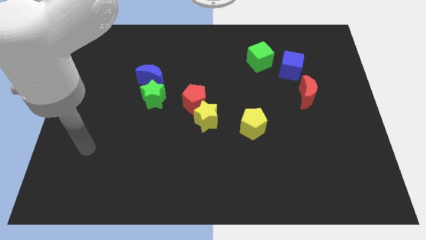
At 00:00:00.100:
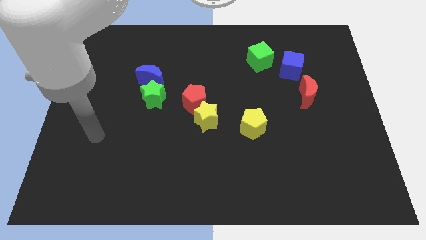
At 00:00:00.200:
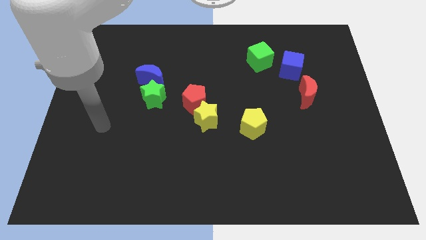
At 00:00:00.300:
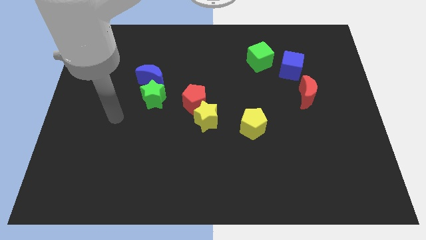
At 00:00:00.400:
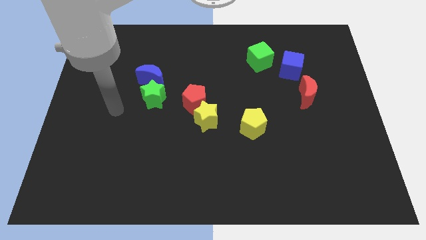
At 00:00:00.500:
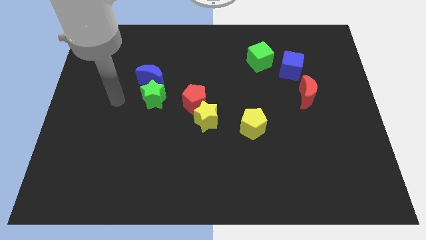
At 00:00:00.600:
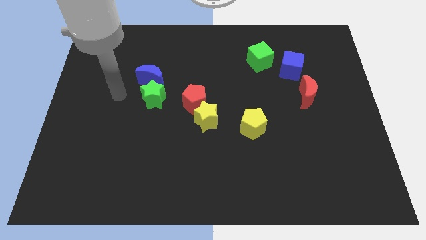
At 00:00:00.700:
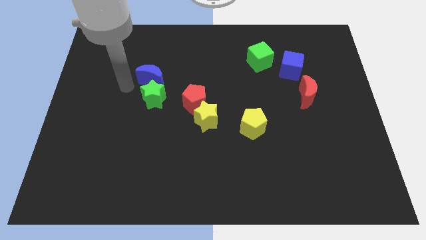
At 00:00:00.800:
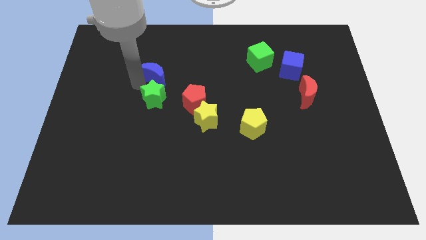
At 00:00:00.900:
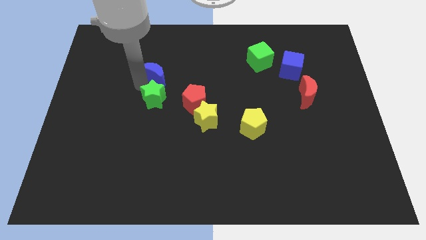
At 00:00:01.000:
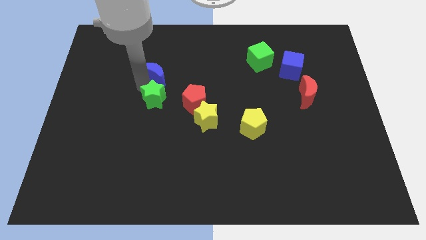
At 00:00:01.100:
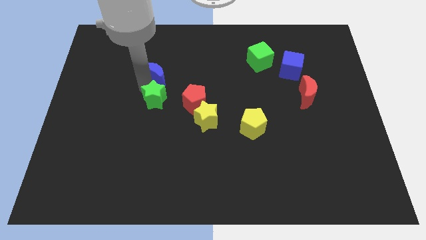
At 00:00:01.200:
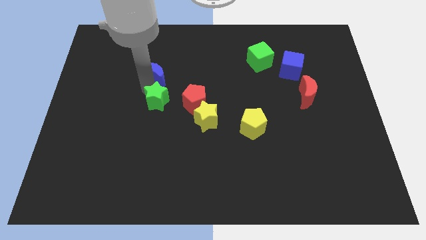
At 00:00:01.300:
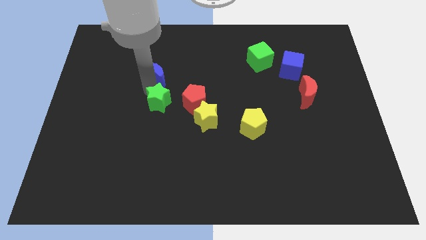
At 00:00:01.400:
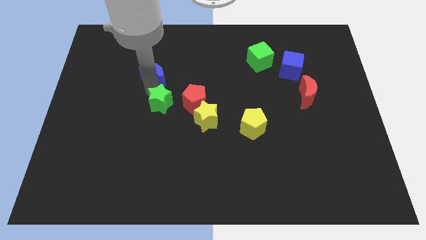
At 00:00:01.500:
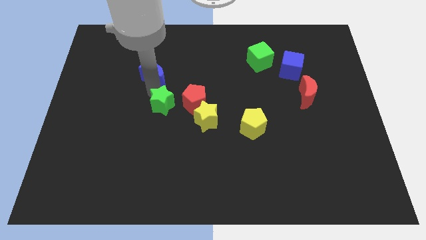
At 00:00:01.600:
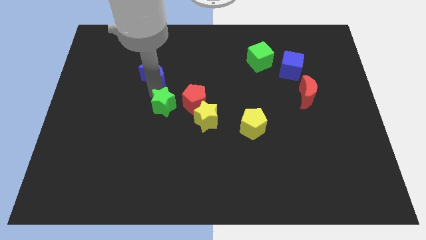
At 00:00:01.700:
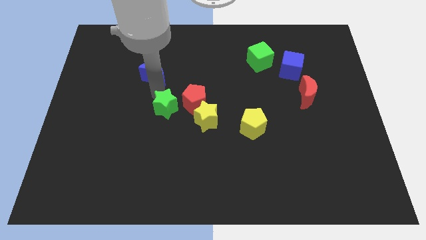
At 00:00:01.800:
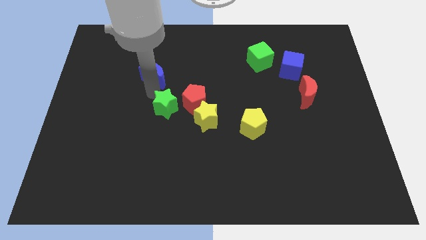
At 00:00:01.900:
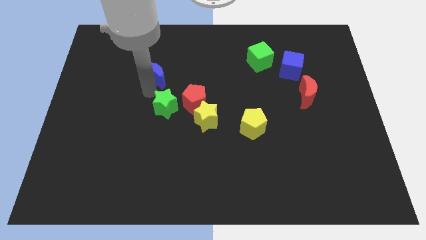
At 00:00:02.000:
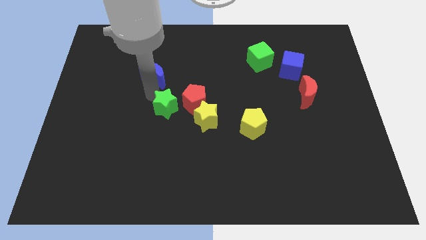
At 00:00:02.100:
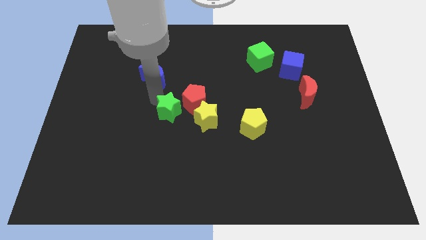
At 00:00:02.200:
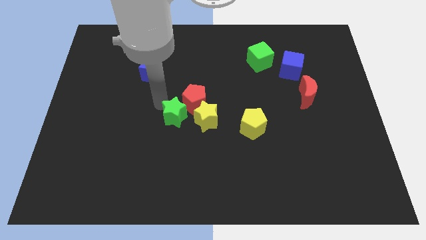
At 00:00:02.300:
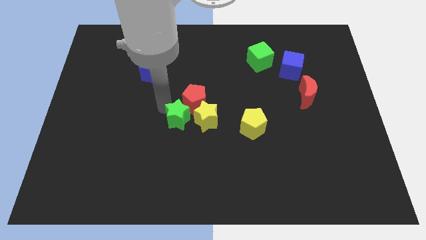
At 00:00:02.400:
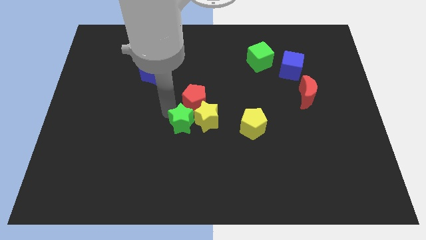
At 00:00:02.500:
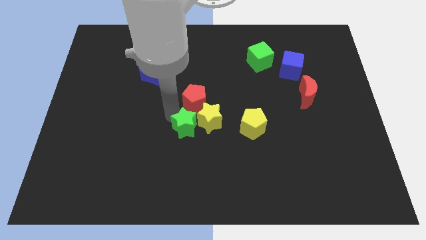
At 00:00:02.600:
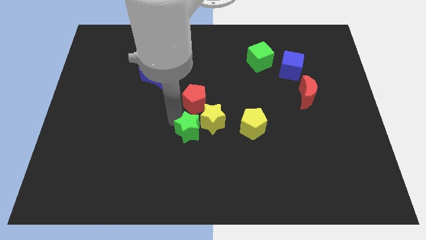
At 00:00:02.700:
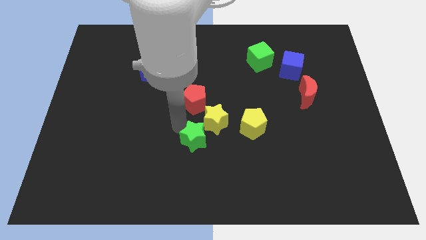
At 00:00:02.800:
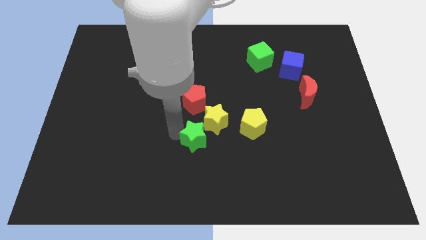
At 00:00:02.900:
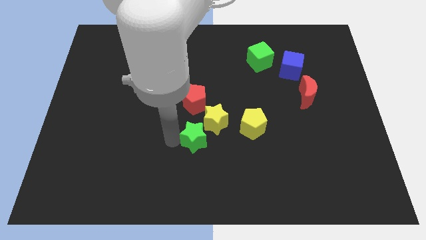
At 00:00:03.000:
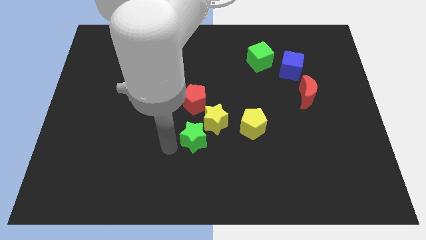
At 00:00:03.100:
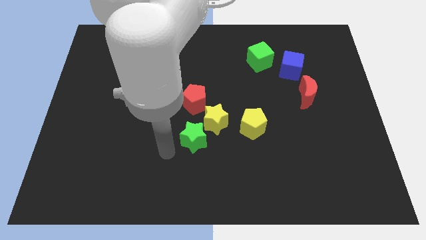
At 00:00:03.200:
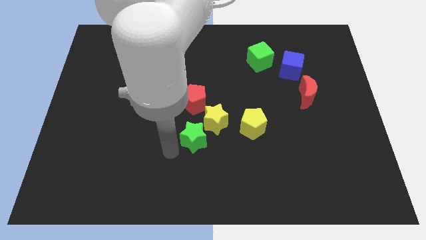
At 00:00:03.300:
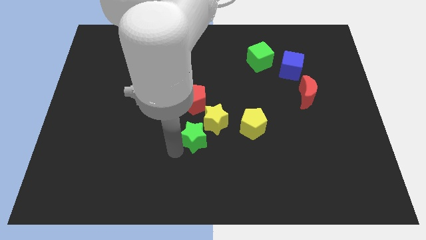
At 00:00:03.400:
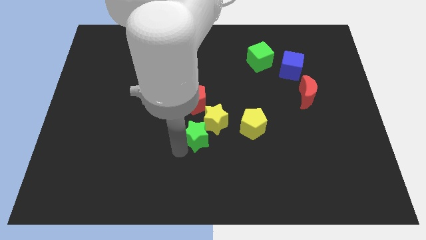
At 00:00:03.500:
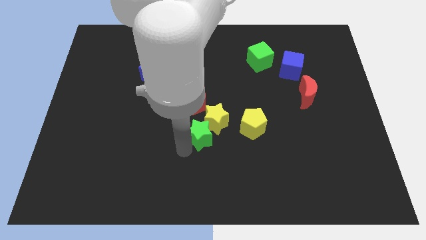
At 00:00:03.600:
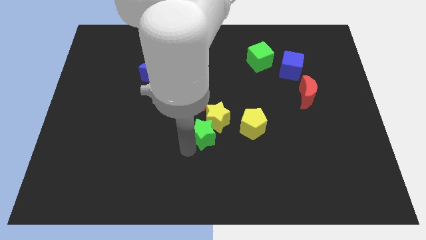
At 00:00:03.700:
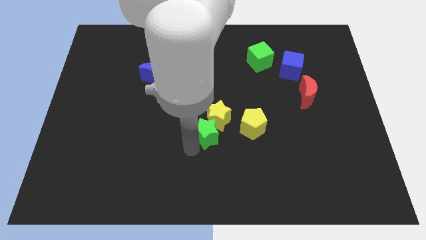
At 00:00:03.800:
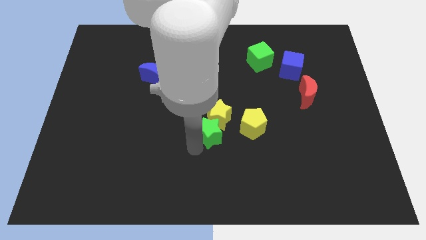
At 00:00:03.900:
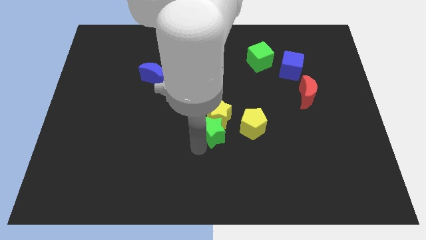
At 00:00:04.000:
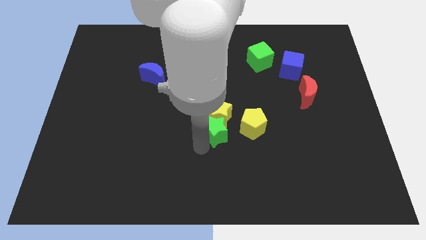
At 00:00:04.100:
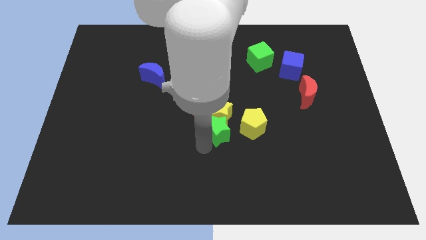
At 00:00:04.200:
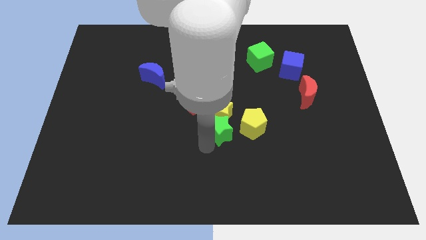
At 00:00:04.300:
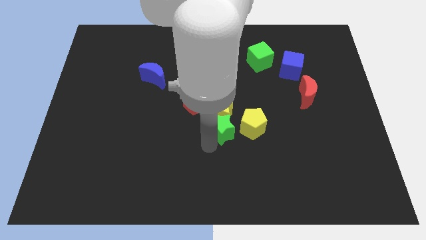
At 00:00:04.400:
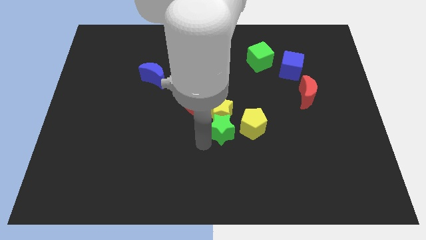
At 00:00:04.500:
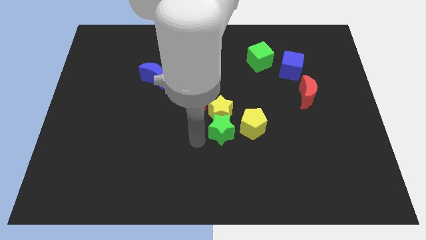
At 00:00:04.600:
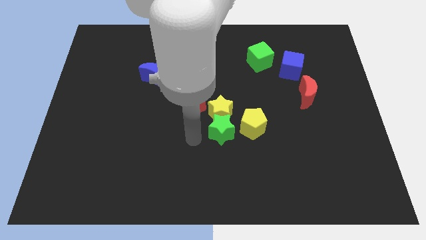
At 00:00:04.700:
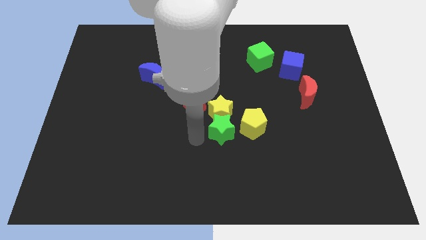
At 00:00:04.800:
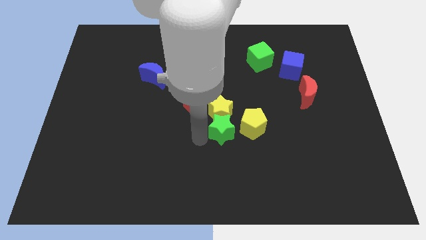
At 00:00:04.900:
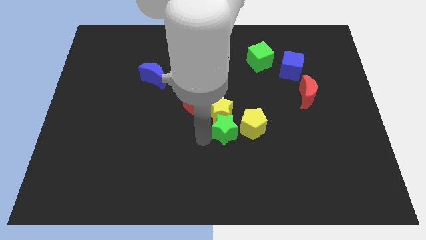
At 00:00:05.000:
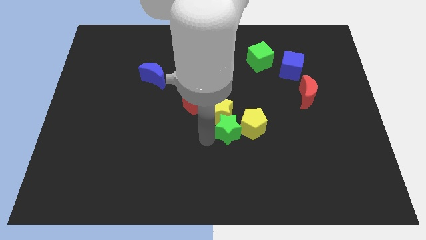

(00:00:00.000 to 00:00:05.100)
move the green star close to the yellow pentagon

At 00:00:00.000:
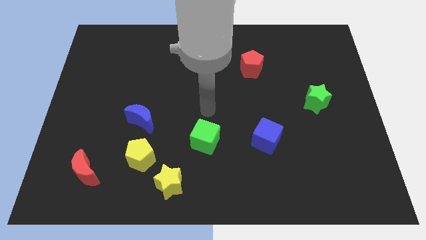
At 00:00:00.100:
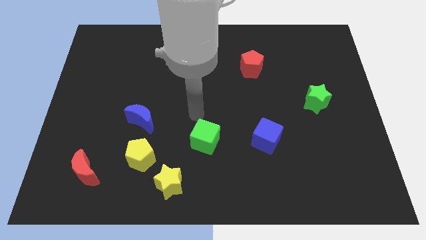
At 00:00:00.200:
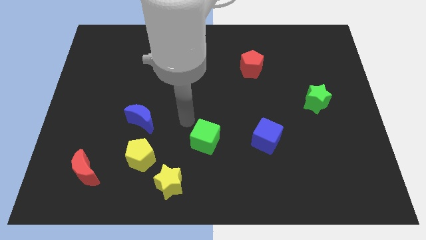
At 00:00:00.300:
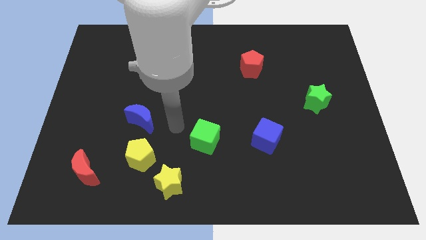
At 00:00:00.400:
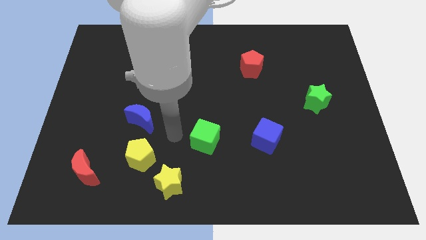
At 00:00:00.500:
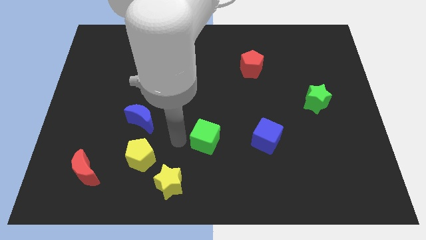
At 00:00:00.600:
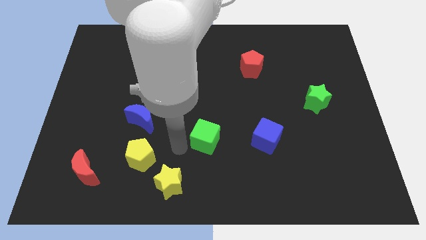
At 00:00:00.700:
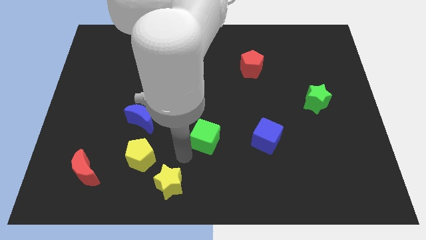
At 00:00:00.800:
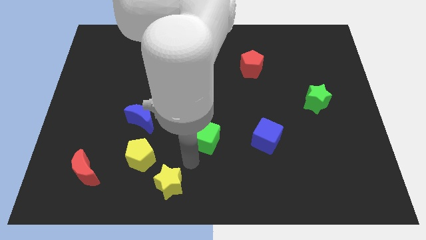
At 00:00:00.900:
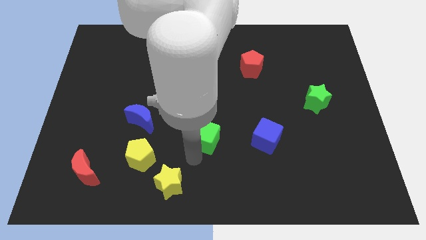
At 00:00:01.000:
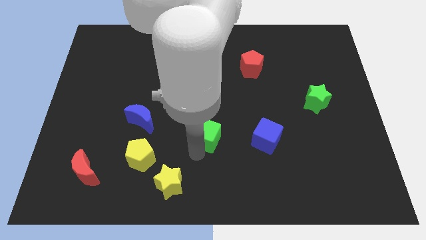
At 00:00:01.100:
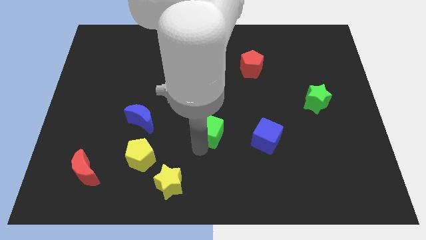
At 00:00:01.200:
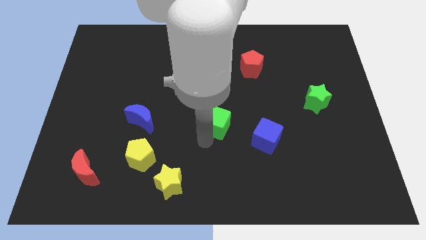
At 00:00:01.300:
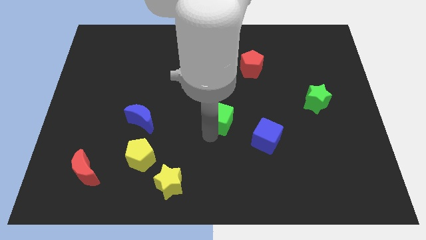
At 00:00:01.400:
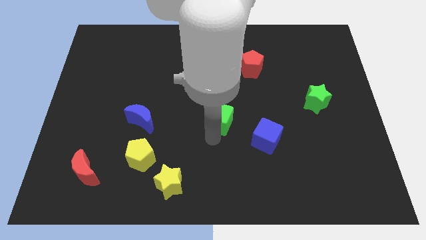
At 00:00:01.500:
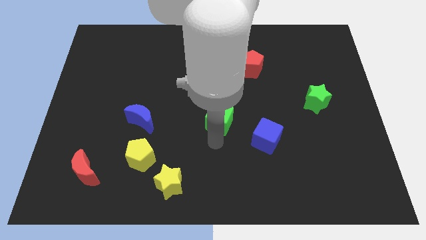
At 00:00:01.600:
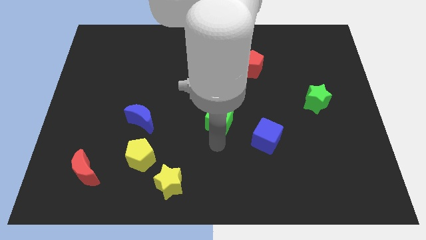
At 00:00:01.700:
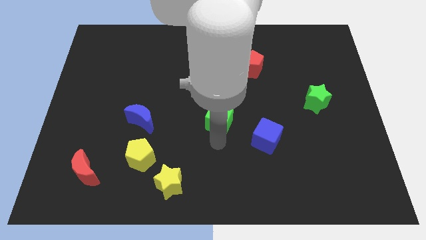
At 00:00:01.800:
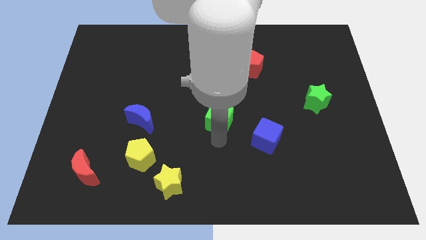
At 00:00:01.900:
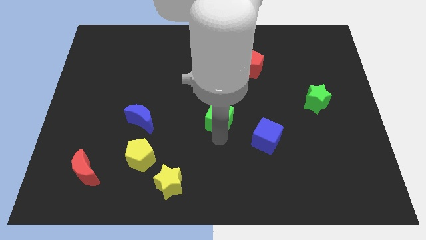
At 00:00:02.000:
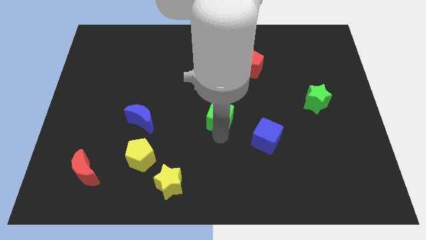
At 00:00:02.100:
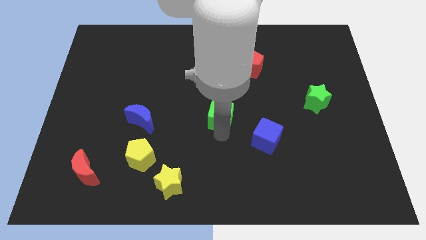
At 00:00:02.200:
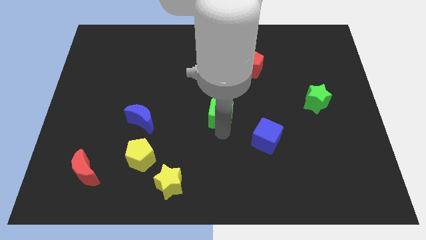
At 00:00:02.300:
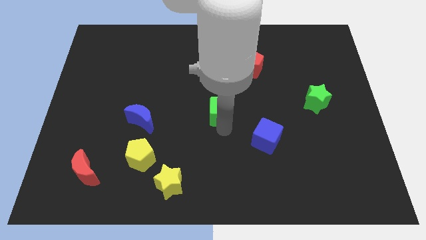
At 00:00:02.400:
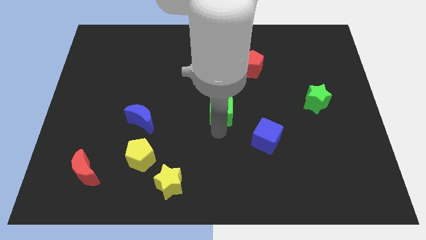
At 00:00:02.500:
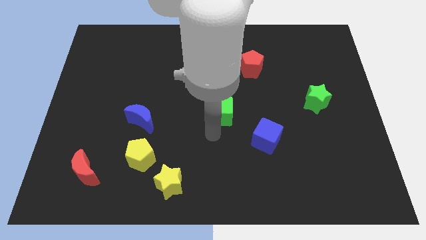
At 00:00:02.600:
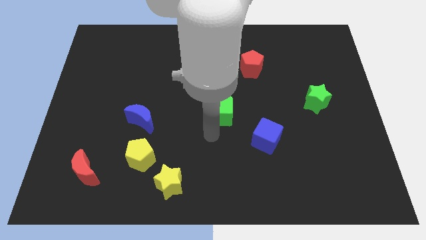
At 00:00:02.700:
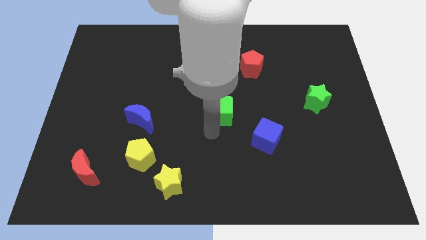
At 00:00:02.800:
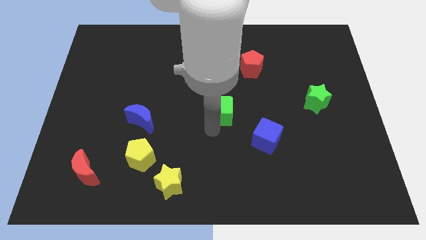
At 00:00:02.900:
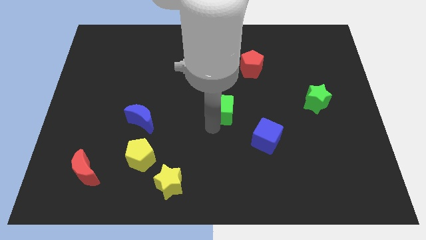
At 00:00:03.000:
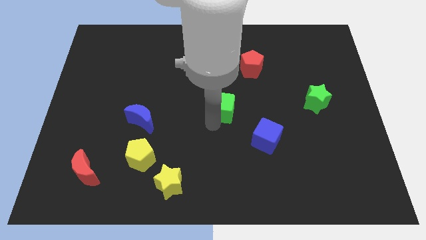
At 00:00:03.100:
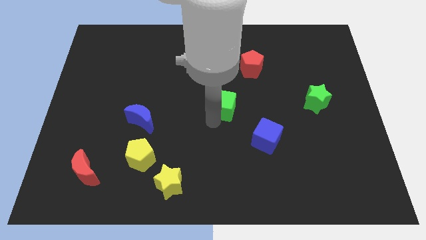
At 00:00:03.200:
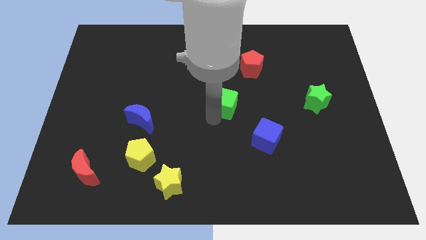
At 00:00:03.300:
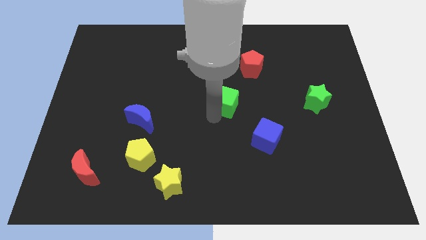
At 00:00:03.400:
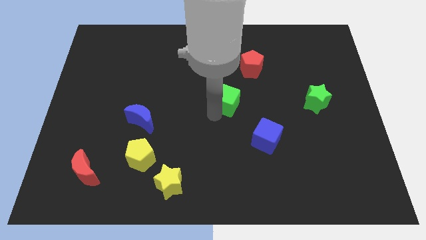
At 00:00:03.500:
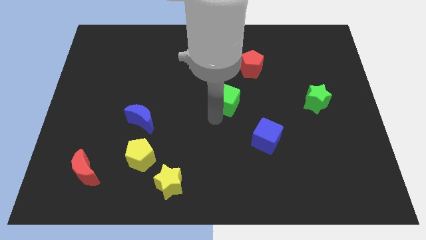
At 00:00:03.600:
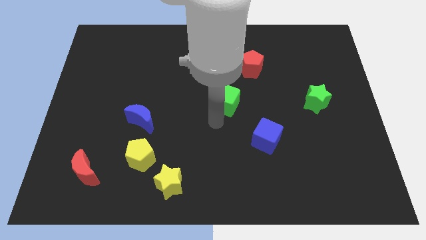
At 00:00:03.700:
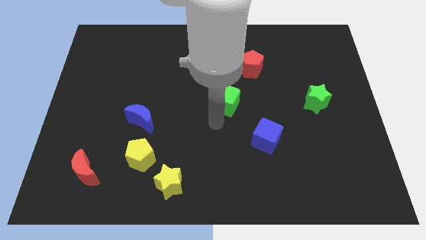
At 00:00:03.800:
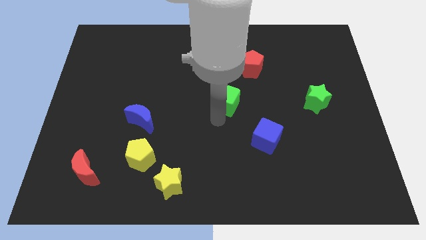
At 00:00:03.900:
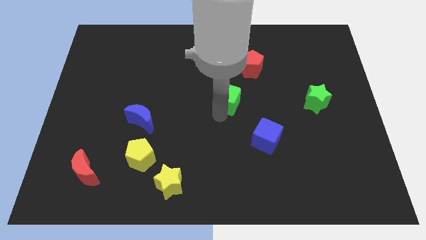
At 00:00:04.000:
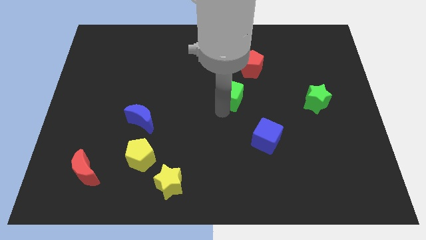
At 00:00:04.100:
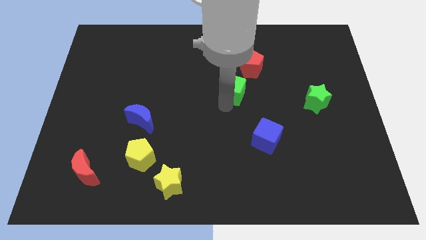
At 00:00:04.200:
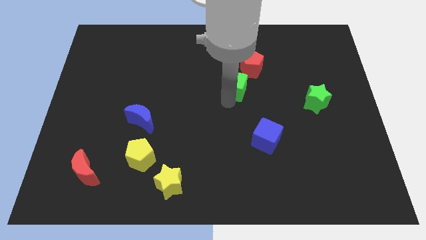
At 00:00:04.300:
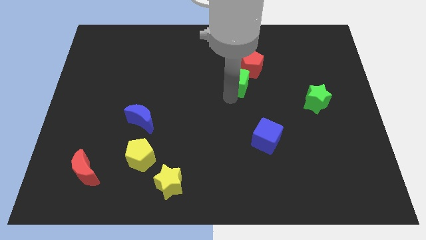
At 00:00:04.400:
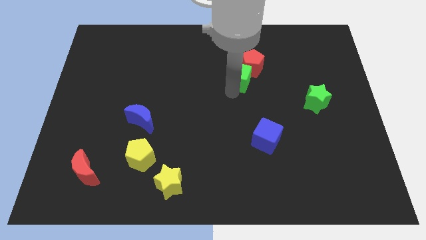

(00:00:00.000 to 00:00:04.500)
push the green cube towards the red pentagon
